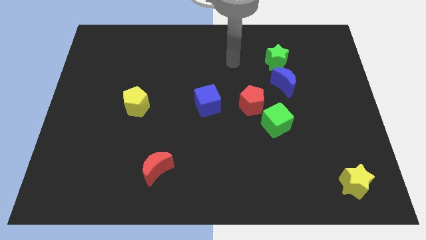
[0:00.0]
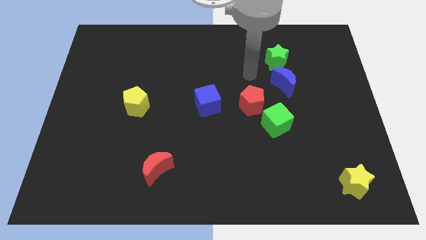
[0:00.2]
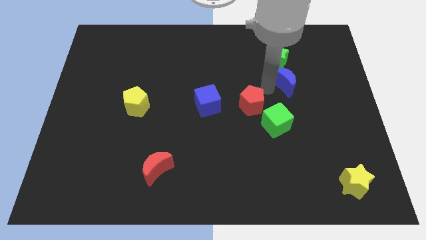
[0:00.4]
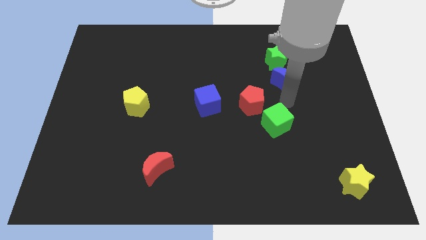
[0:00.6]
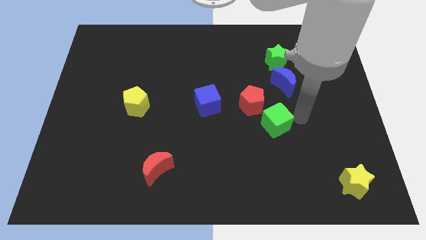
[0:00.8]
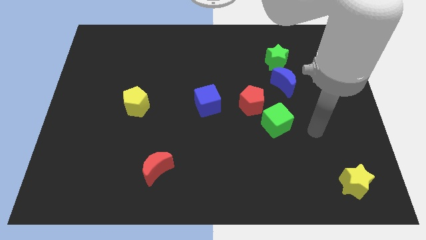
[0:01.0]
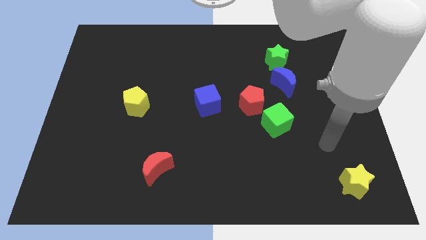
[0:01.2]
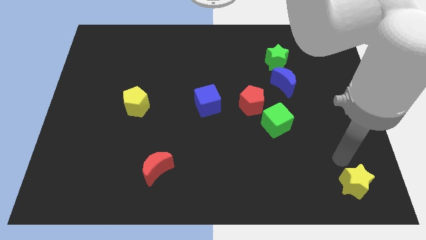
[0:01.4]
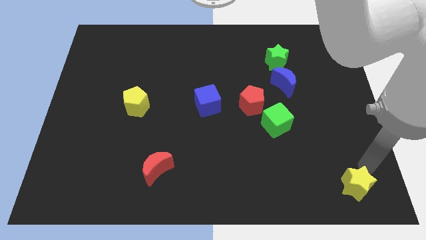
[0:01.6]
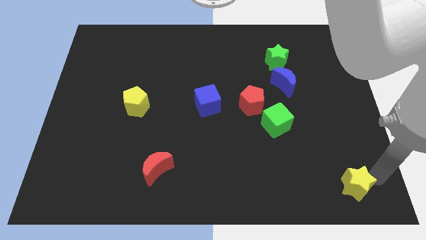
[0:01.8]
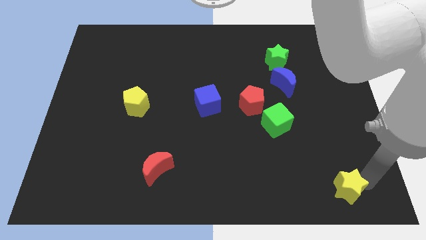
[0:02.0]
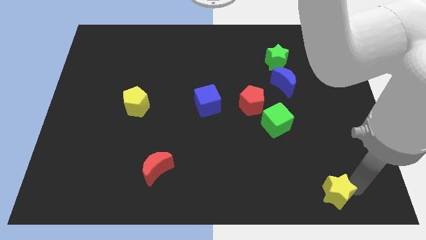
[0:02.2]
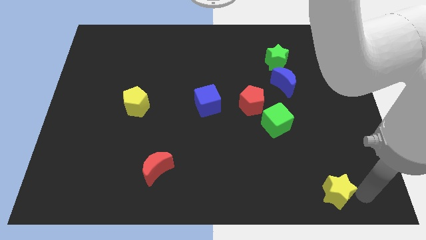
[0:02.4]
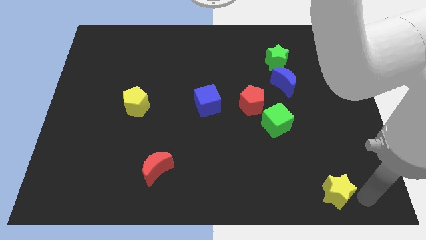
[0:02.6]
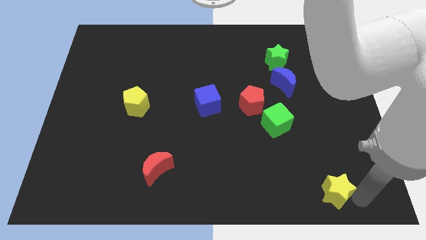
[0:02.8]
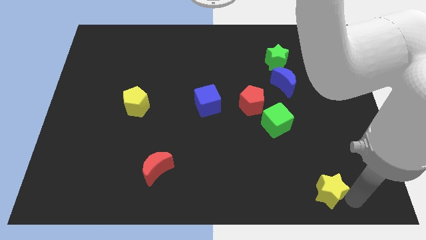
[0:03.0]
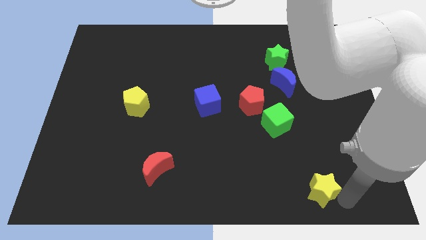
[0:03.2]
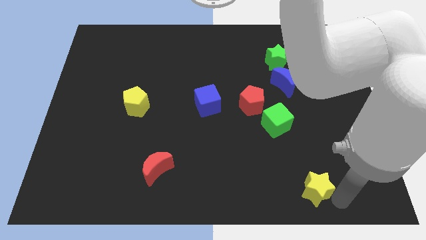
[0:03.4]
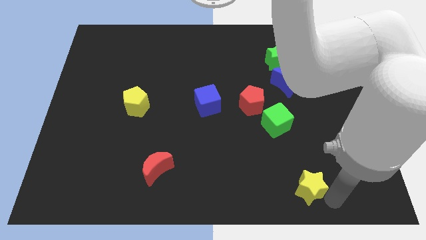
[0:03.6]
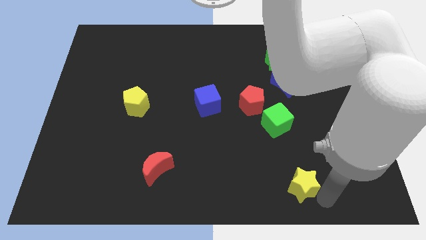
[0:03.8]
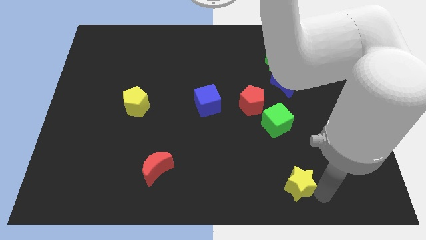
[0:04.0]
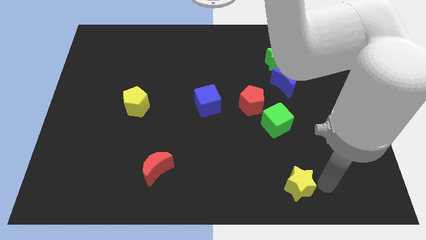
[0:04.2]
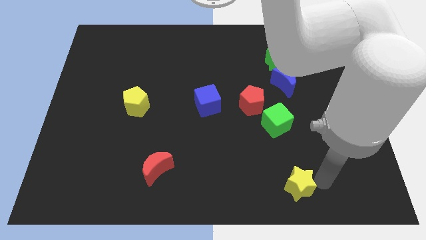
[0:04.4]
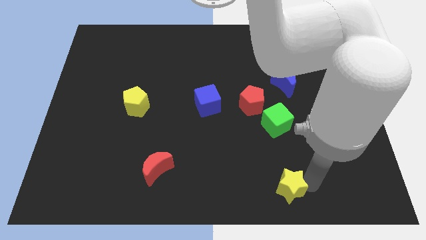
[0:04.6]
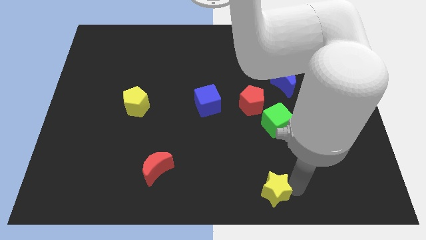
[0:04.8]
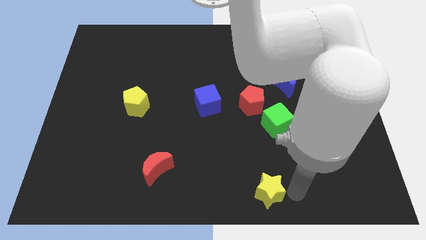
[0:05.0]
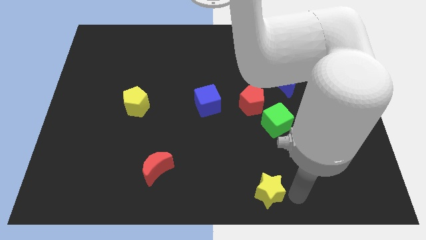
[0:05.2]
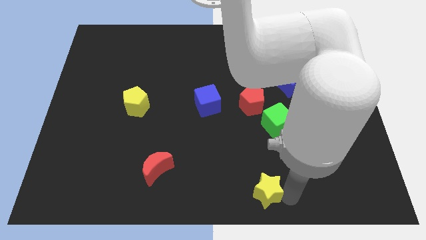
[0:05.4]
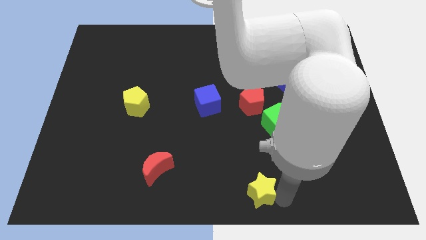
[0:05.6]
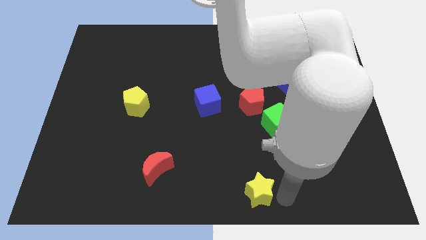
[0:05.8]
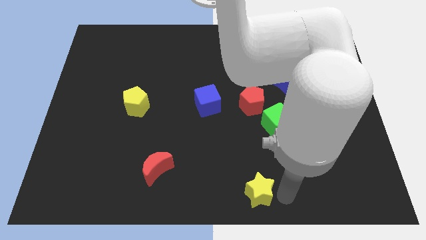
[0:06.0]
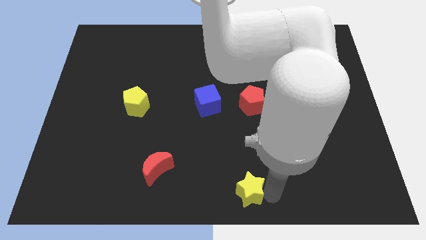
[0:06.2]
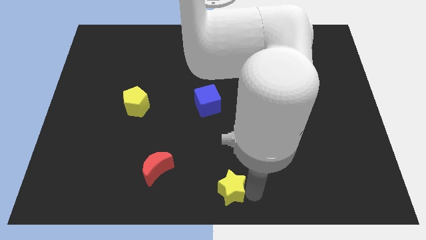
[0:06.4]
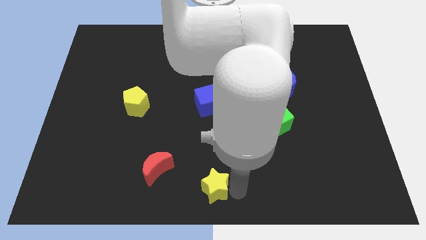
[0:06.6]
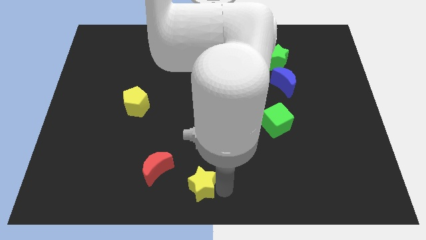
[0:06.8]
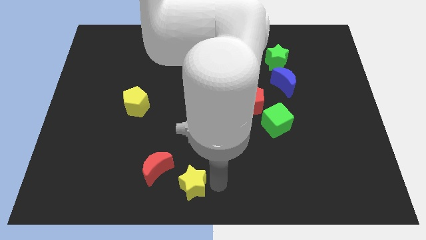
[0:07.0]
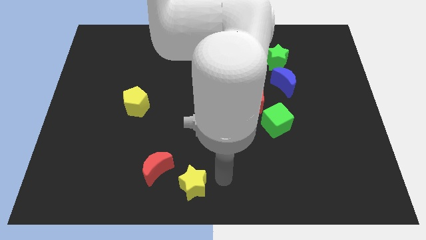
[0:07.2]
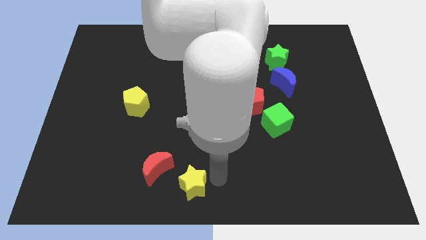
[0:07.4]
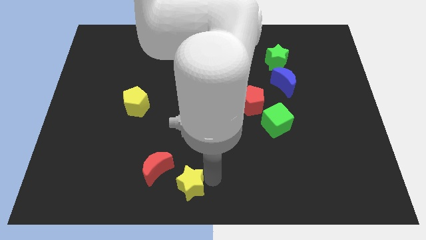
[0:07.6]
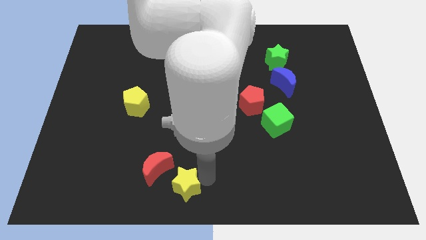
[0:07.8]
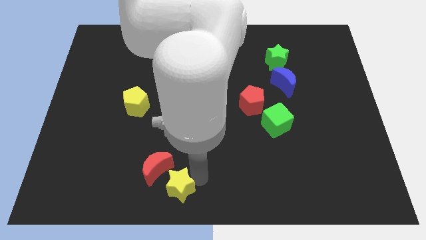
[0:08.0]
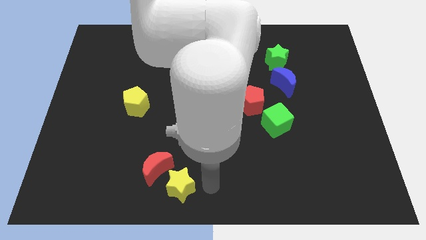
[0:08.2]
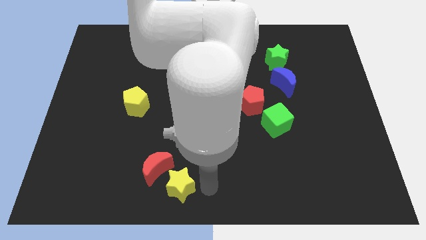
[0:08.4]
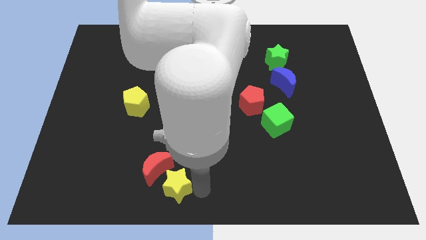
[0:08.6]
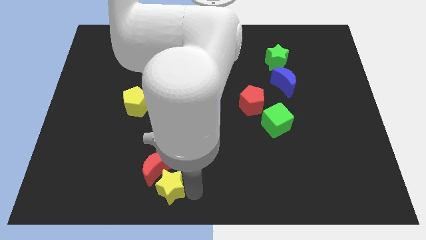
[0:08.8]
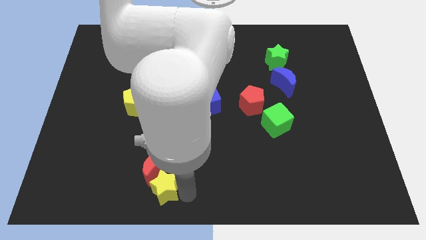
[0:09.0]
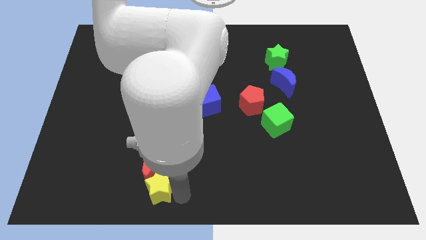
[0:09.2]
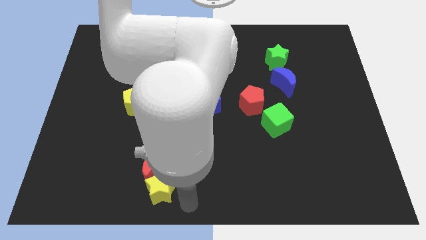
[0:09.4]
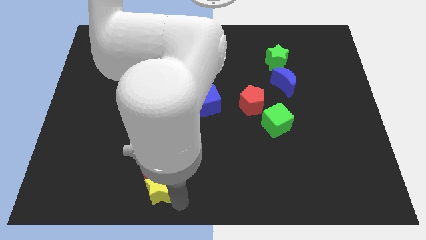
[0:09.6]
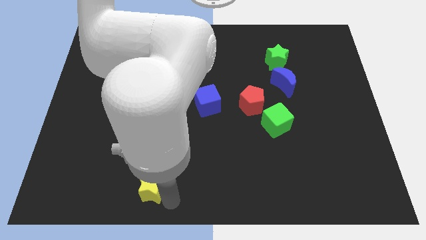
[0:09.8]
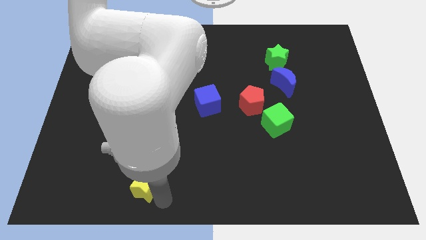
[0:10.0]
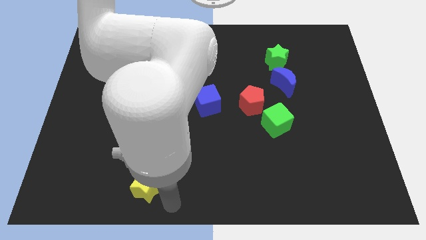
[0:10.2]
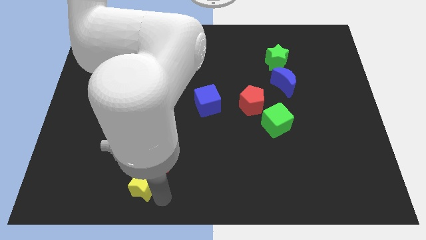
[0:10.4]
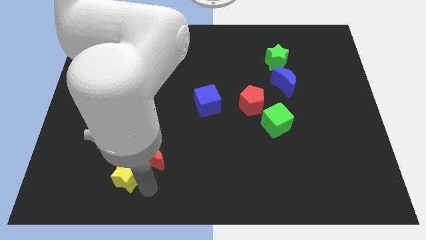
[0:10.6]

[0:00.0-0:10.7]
slide the yellow star just left of the red moon

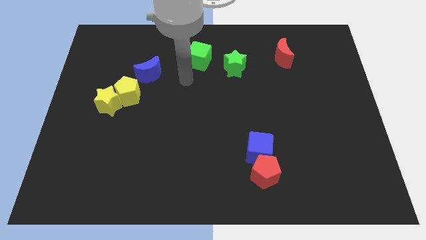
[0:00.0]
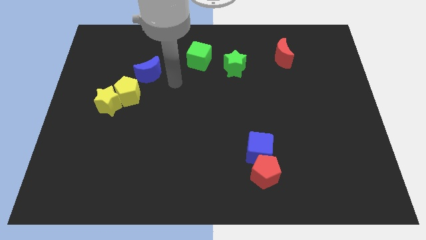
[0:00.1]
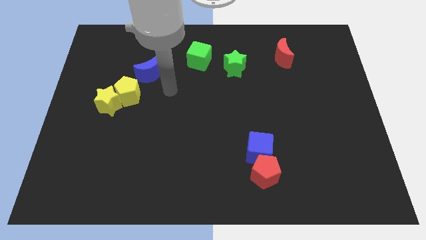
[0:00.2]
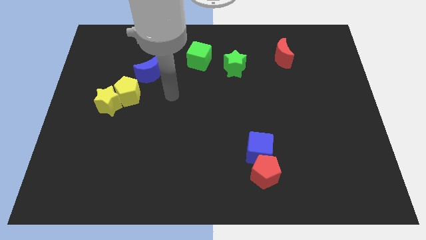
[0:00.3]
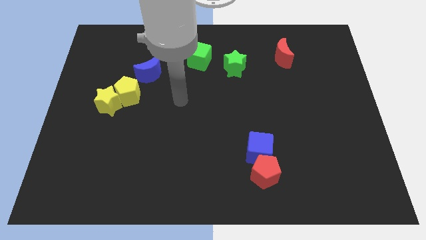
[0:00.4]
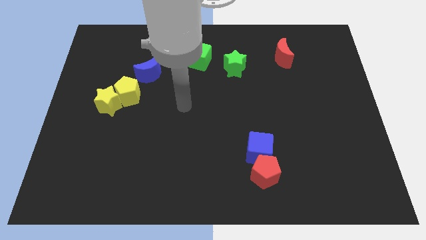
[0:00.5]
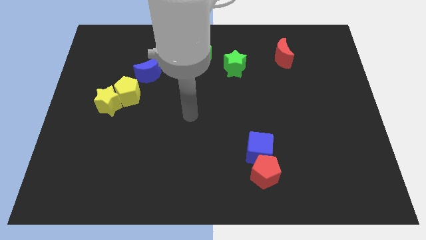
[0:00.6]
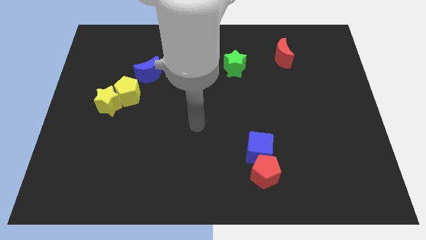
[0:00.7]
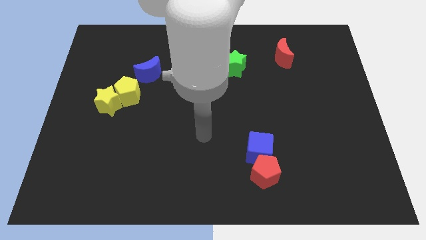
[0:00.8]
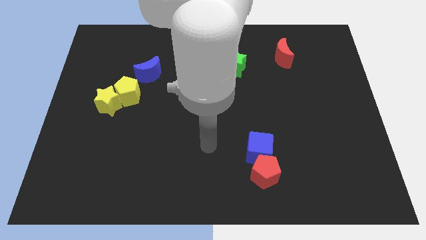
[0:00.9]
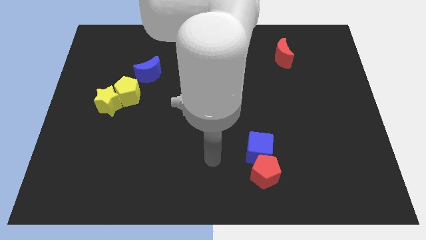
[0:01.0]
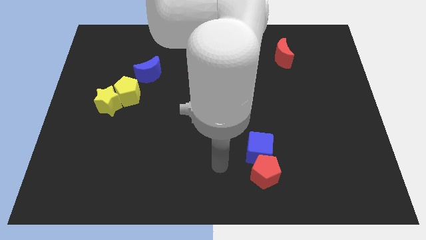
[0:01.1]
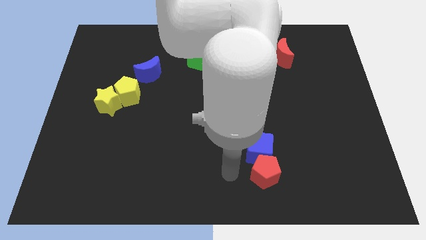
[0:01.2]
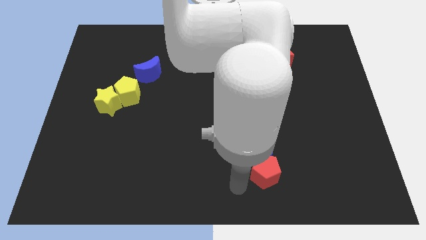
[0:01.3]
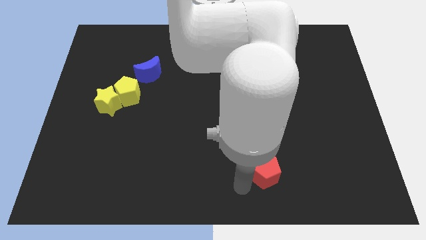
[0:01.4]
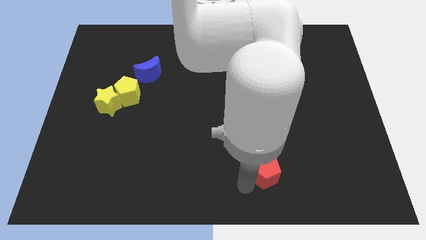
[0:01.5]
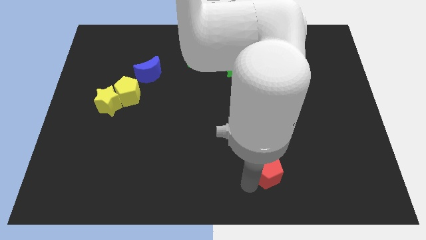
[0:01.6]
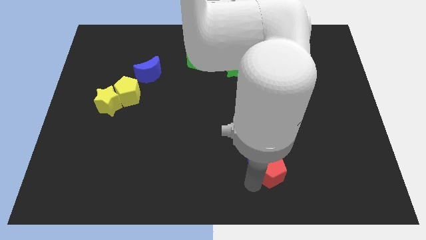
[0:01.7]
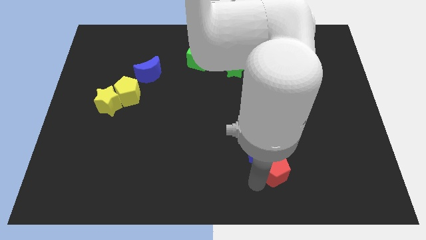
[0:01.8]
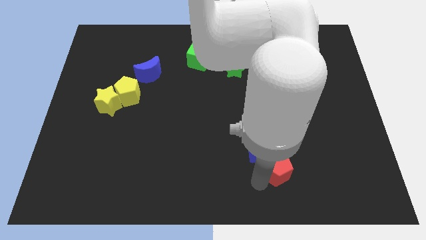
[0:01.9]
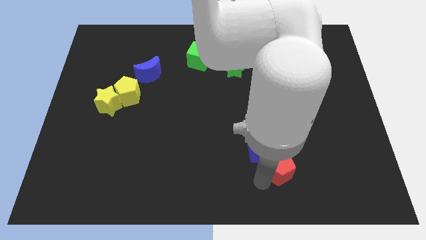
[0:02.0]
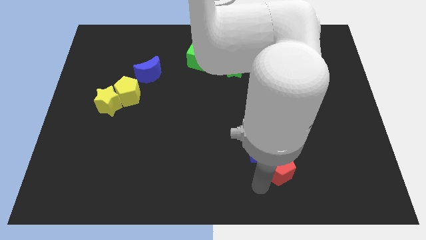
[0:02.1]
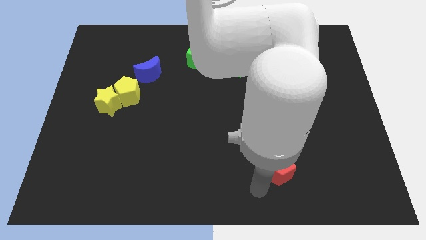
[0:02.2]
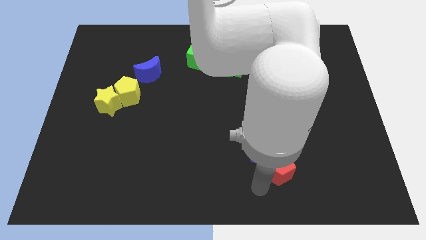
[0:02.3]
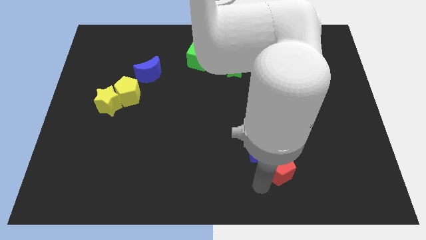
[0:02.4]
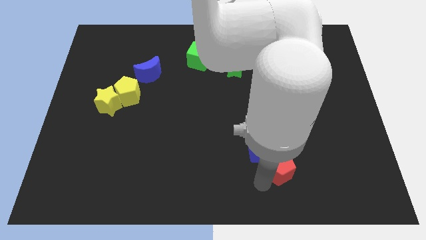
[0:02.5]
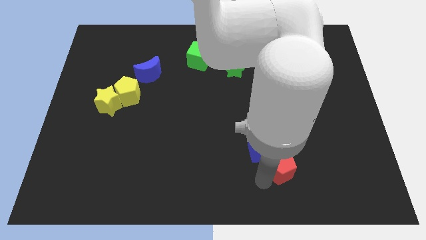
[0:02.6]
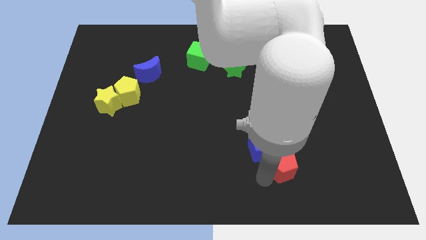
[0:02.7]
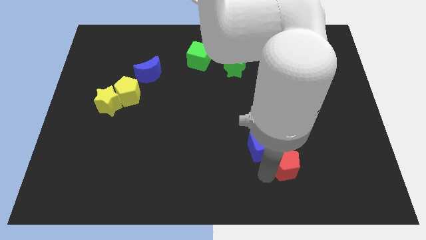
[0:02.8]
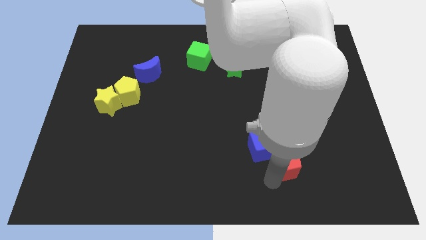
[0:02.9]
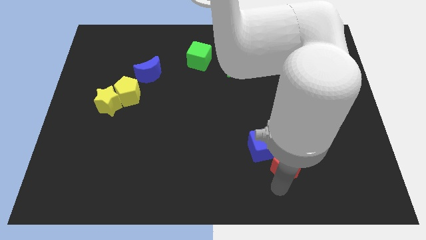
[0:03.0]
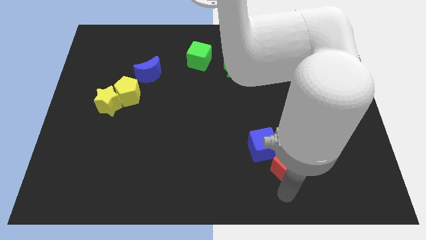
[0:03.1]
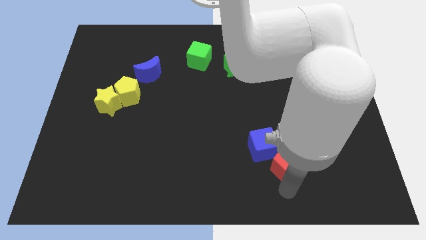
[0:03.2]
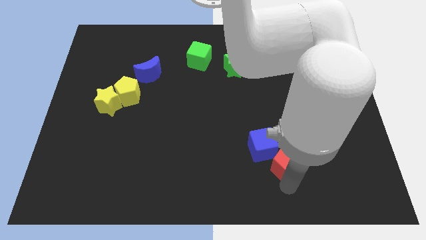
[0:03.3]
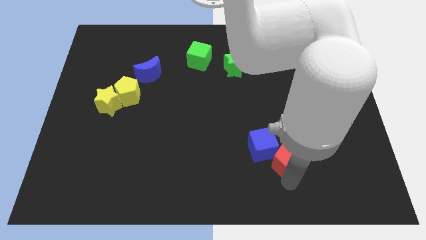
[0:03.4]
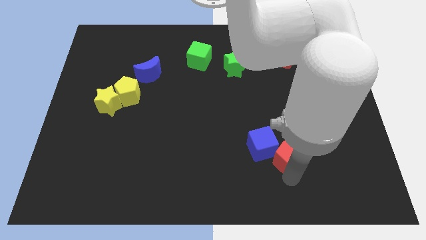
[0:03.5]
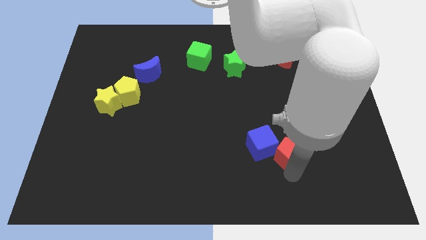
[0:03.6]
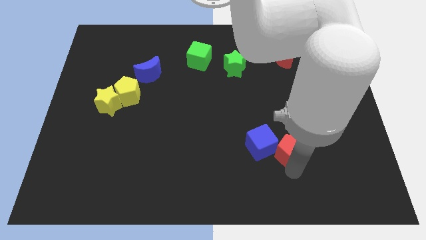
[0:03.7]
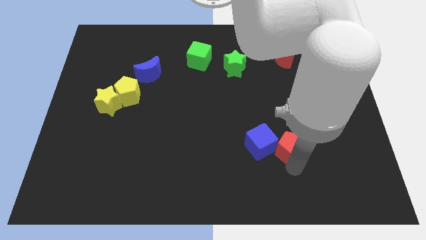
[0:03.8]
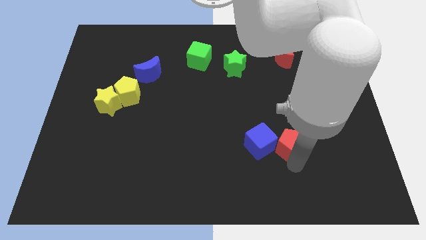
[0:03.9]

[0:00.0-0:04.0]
move the red pentagon to the top right of the blue cube
